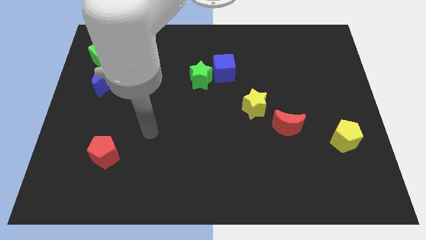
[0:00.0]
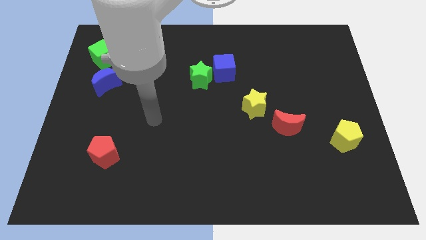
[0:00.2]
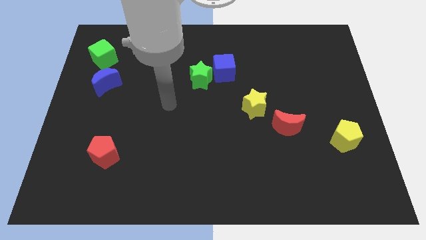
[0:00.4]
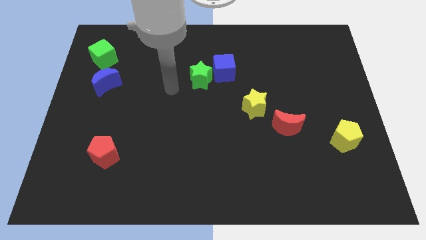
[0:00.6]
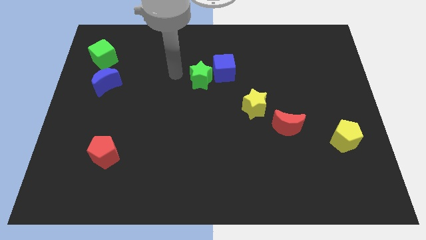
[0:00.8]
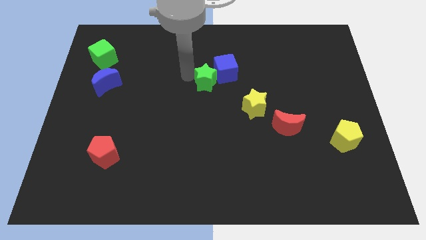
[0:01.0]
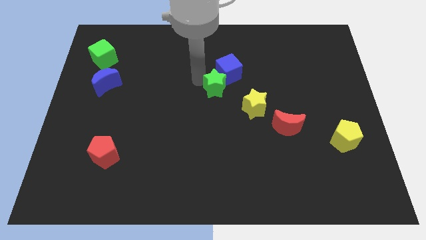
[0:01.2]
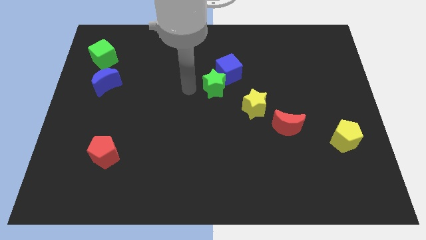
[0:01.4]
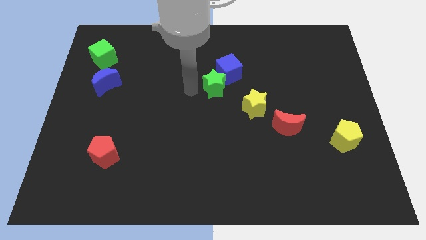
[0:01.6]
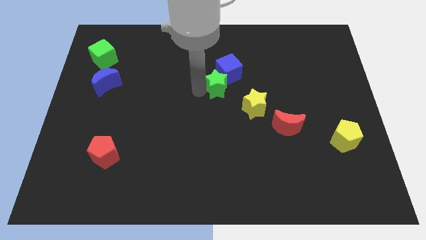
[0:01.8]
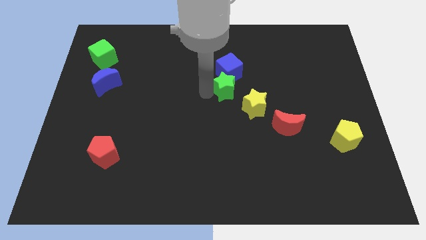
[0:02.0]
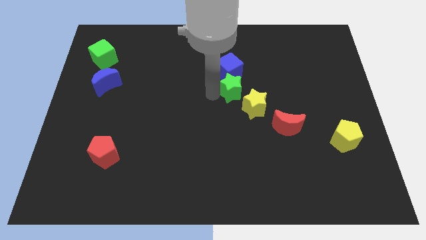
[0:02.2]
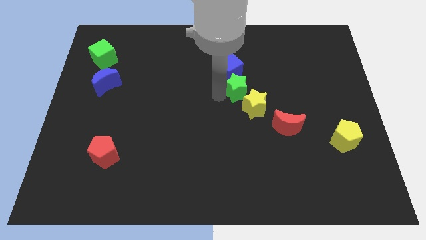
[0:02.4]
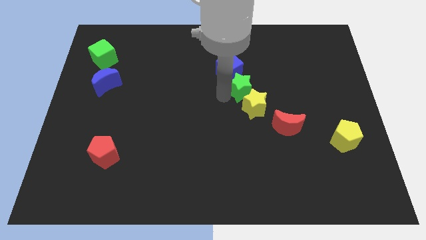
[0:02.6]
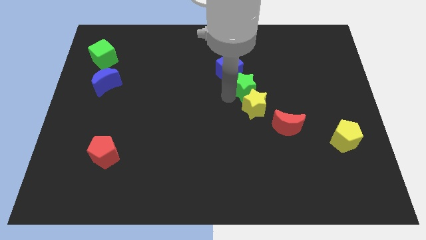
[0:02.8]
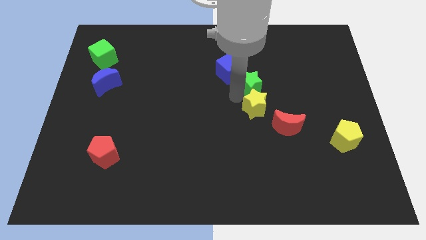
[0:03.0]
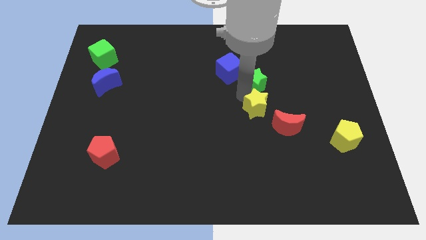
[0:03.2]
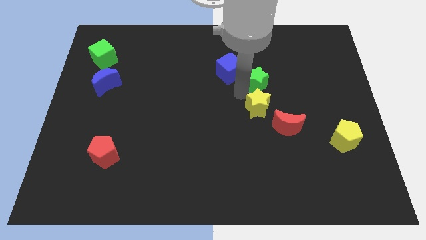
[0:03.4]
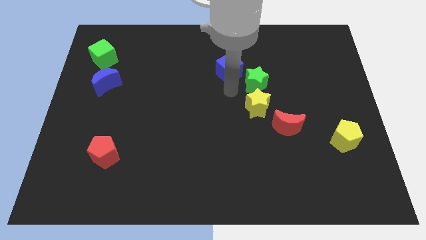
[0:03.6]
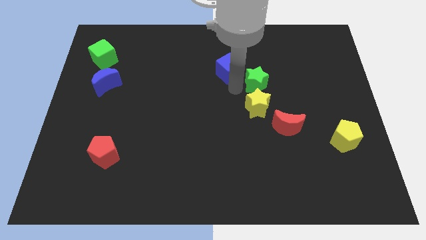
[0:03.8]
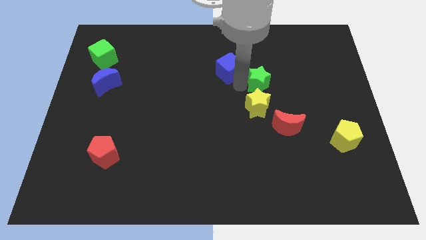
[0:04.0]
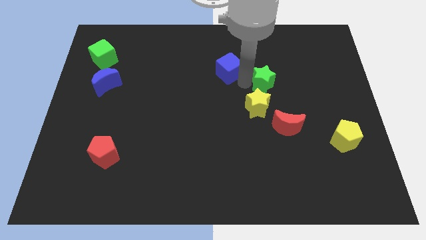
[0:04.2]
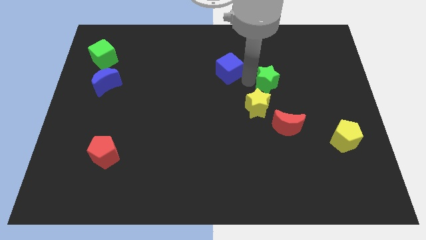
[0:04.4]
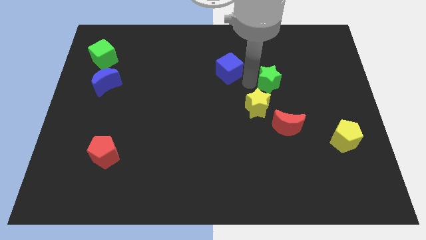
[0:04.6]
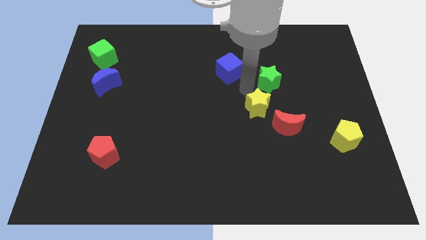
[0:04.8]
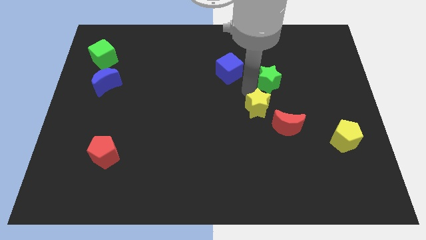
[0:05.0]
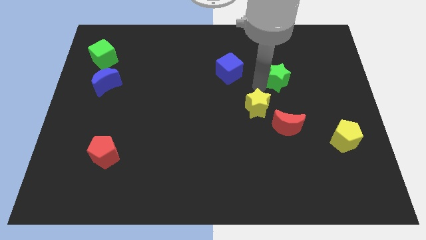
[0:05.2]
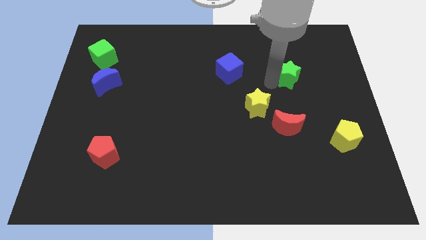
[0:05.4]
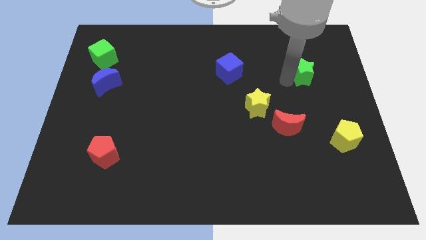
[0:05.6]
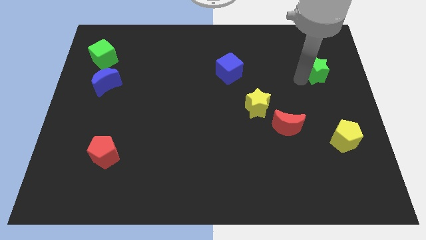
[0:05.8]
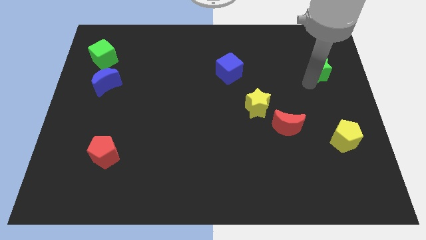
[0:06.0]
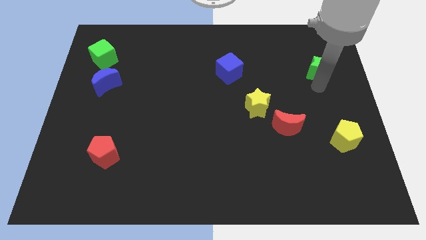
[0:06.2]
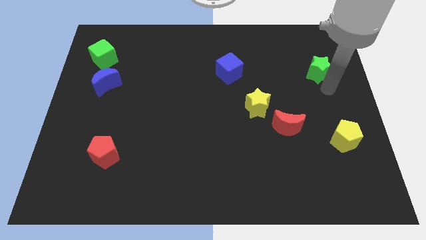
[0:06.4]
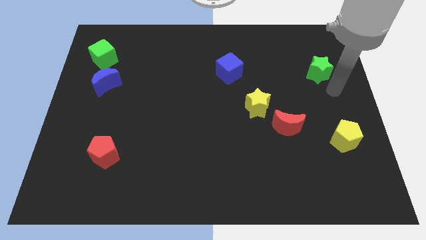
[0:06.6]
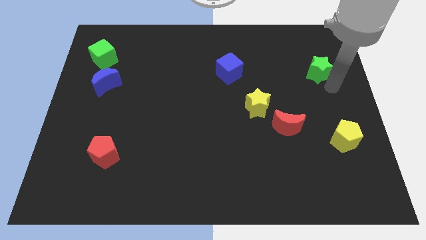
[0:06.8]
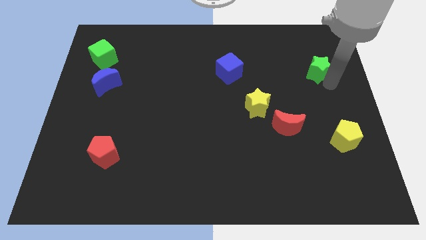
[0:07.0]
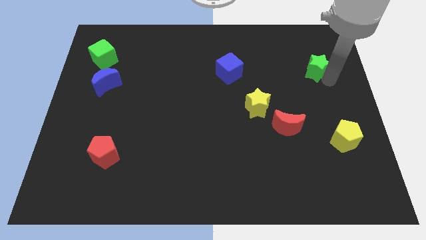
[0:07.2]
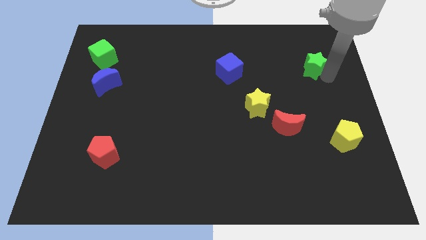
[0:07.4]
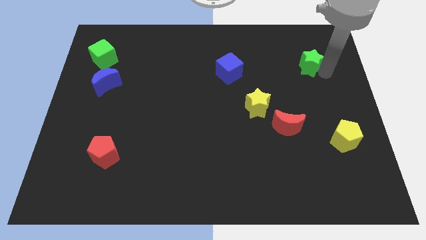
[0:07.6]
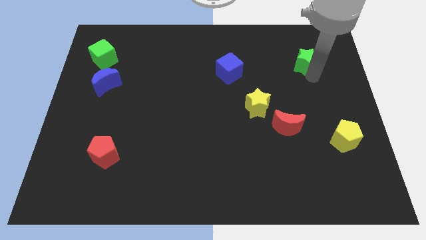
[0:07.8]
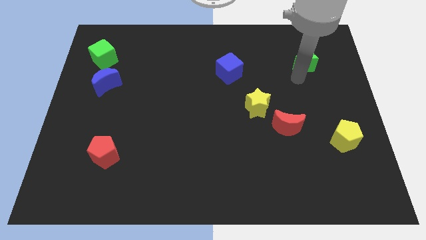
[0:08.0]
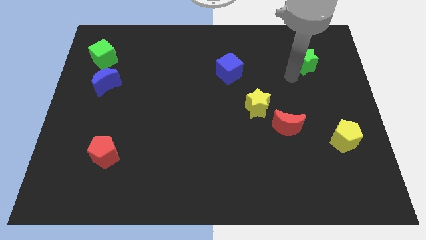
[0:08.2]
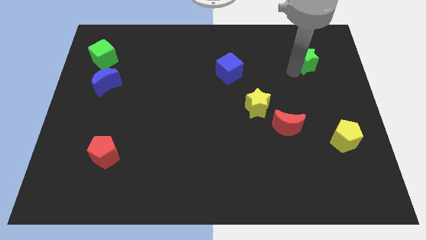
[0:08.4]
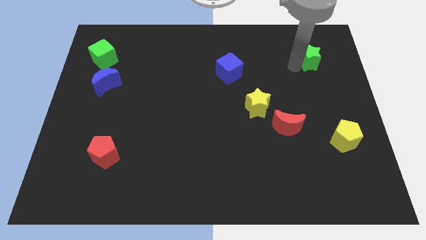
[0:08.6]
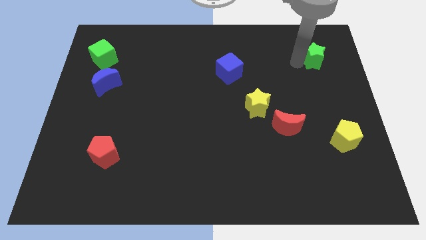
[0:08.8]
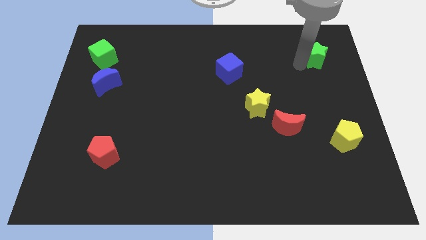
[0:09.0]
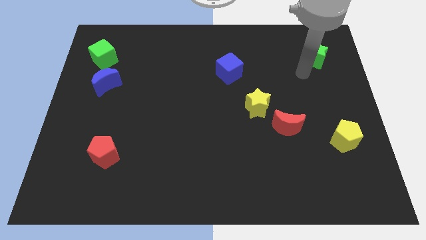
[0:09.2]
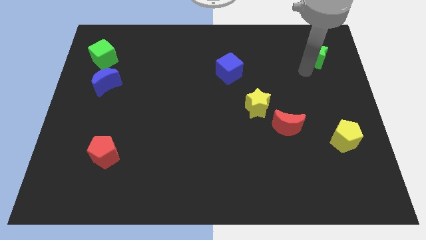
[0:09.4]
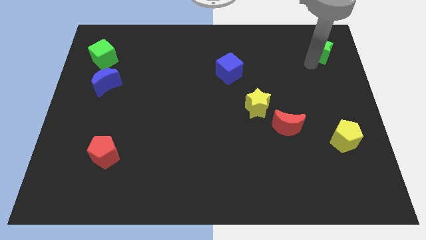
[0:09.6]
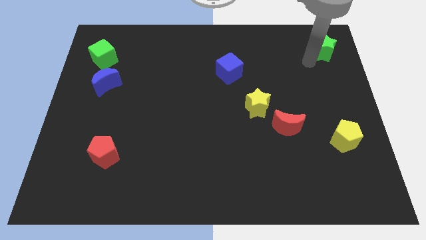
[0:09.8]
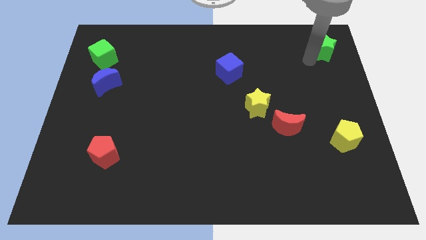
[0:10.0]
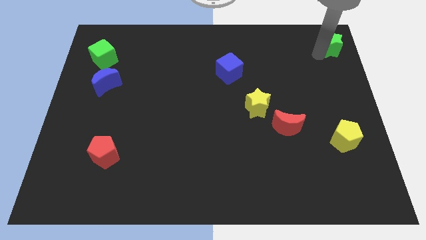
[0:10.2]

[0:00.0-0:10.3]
move the green star to the top right corner

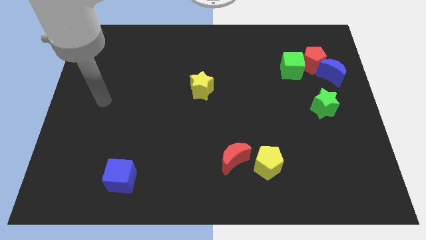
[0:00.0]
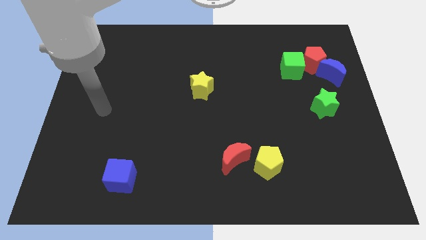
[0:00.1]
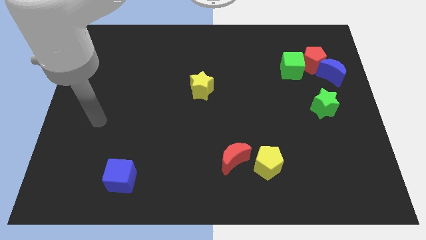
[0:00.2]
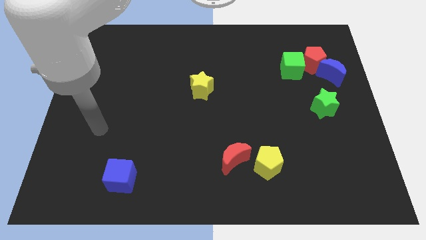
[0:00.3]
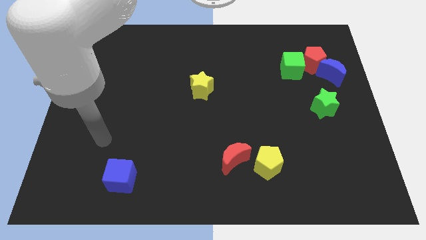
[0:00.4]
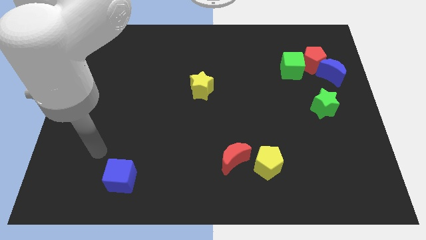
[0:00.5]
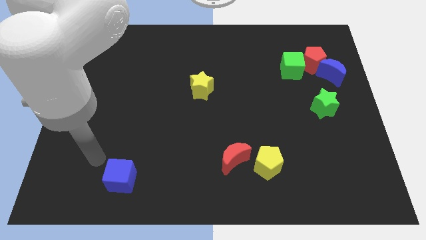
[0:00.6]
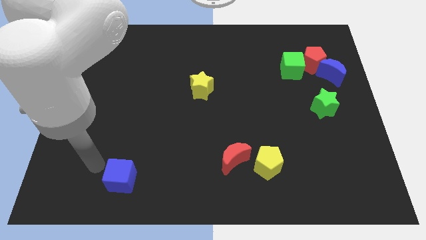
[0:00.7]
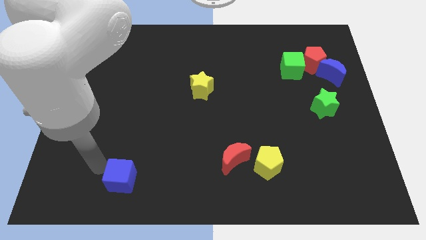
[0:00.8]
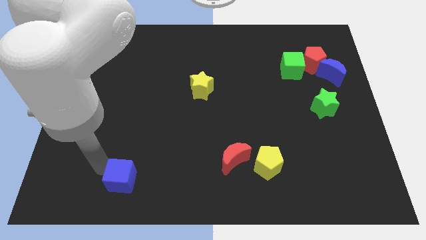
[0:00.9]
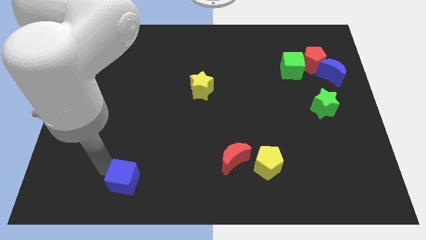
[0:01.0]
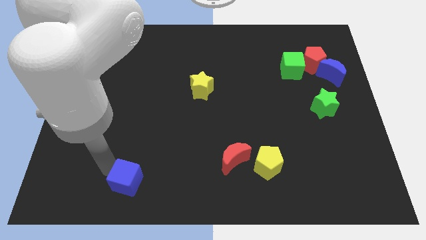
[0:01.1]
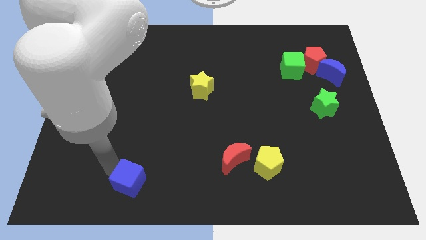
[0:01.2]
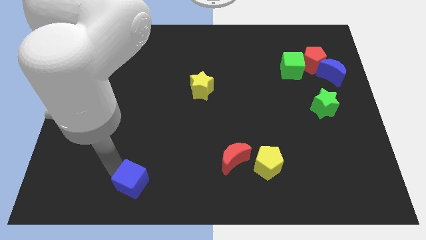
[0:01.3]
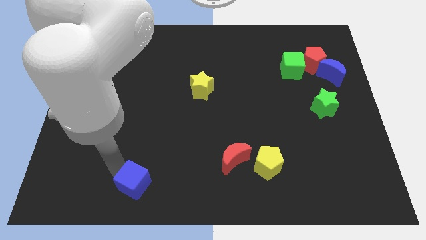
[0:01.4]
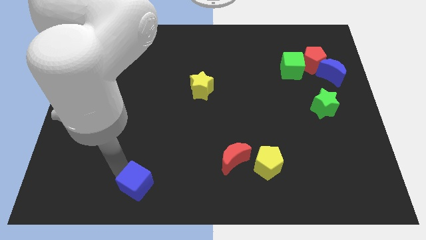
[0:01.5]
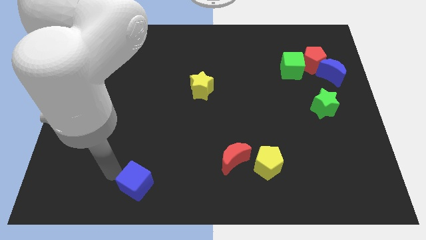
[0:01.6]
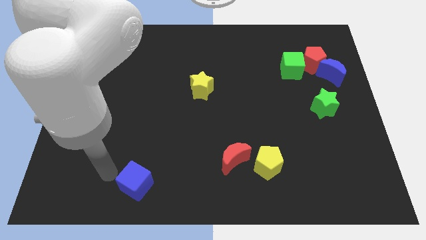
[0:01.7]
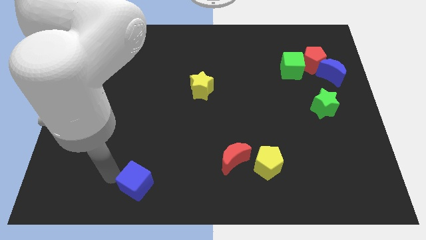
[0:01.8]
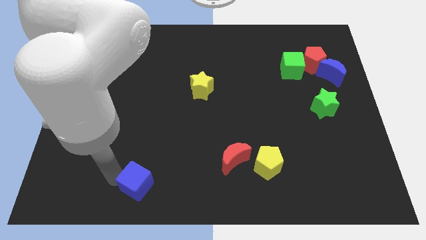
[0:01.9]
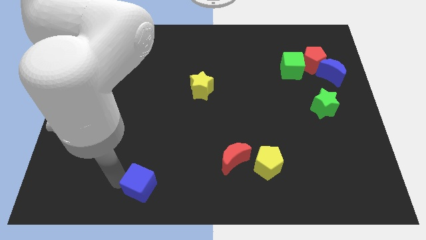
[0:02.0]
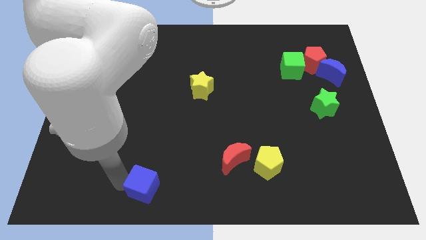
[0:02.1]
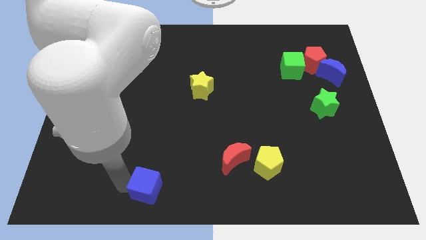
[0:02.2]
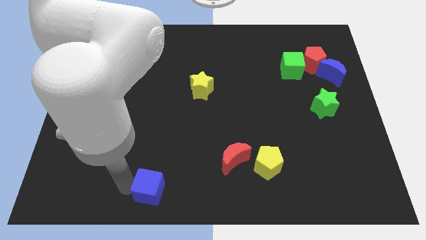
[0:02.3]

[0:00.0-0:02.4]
move the blue cube to the bottom side
